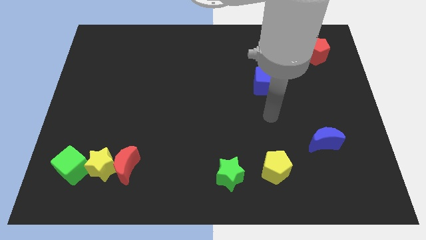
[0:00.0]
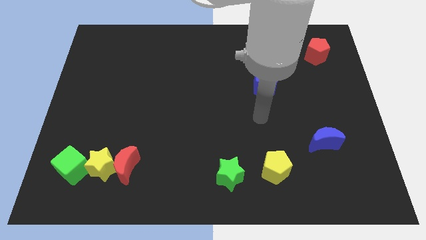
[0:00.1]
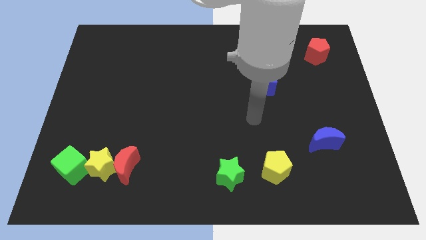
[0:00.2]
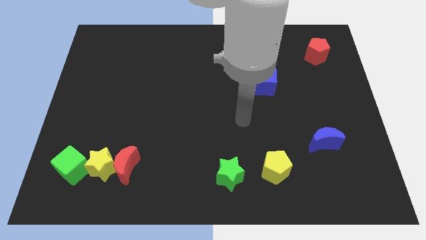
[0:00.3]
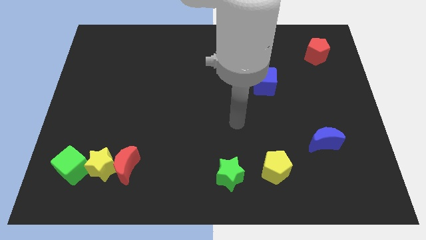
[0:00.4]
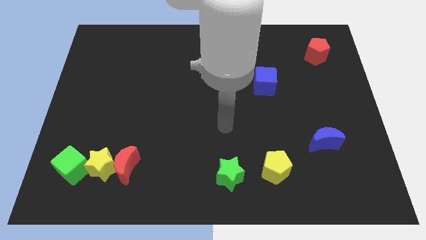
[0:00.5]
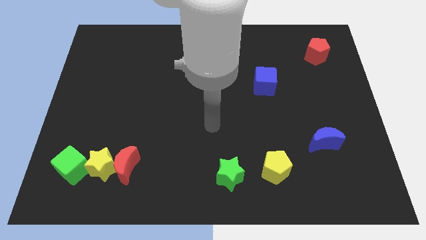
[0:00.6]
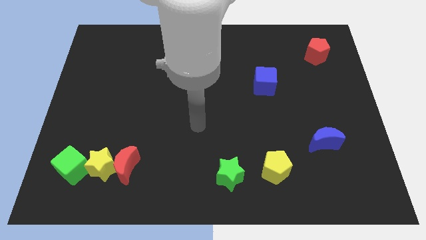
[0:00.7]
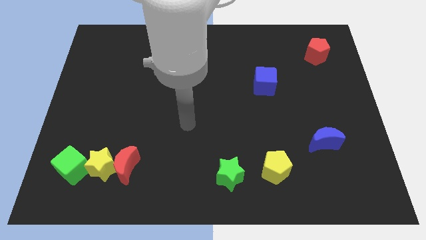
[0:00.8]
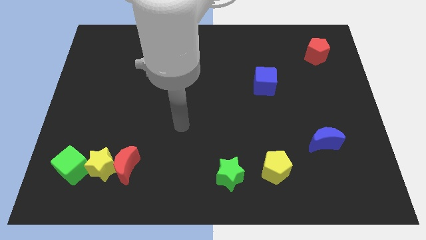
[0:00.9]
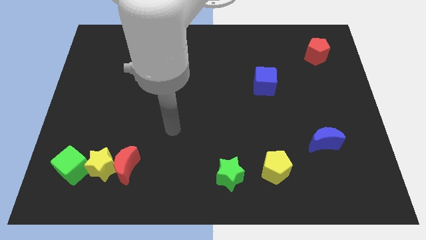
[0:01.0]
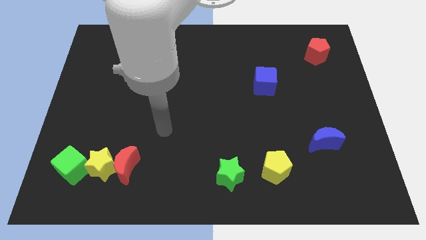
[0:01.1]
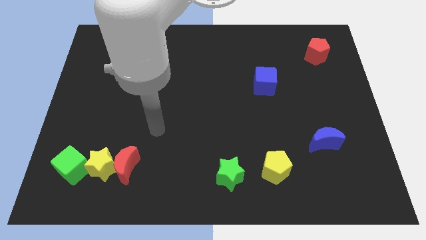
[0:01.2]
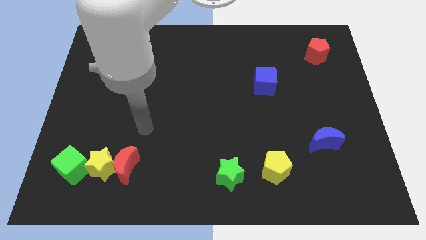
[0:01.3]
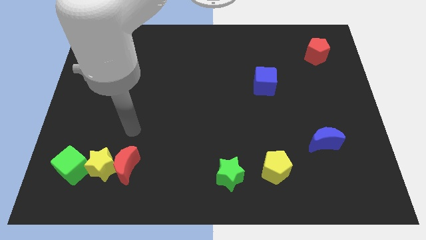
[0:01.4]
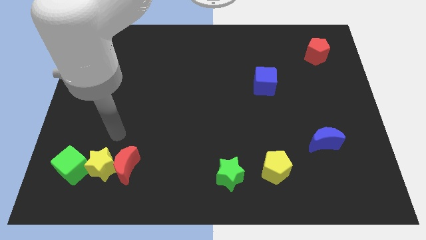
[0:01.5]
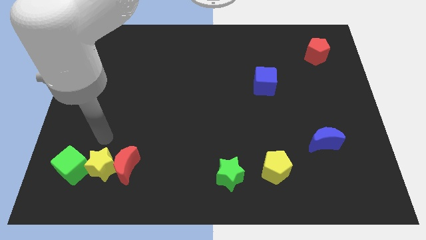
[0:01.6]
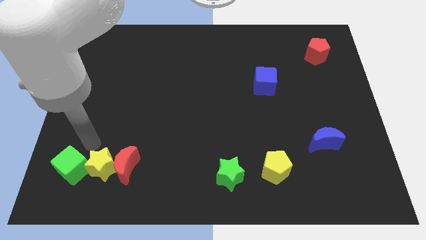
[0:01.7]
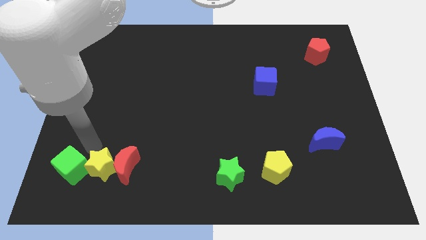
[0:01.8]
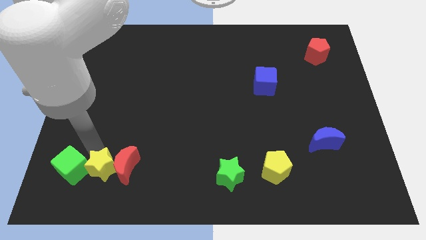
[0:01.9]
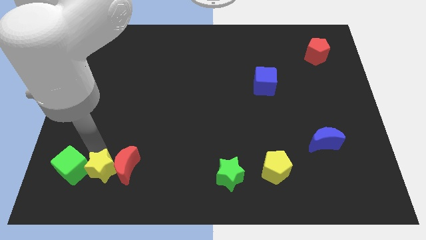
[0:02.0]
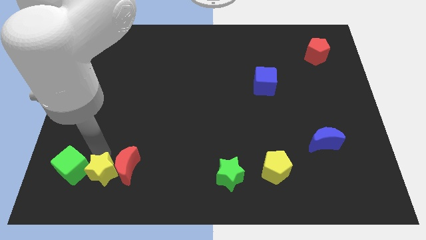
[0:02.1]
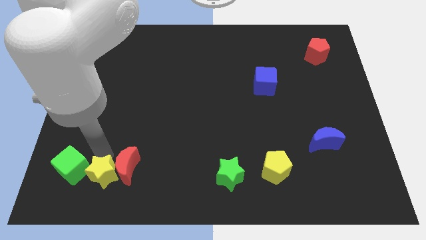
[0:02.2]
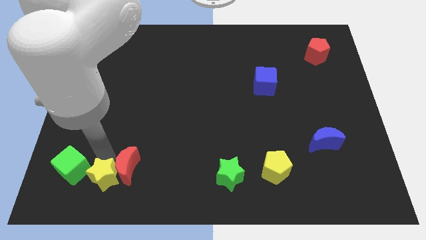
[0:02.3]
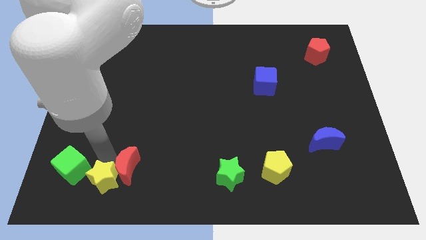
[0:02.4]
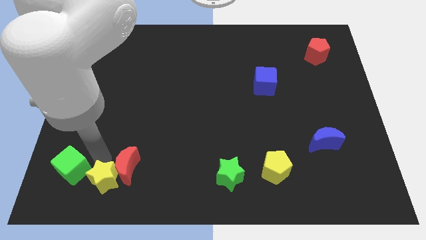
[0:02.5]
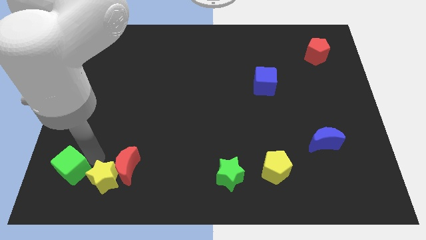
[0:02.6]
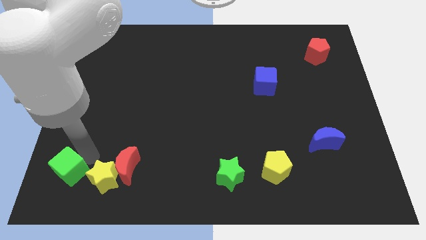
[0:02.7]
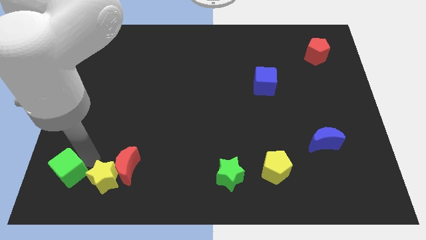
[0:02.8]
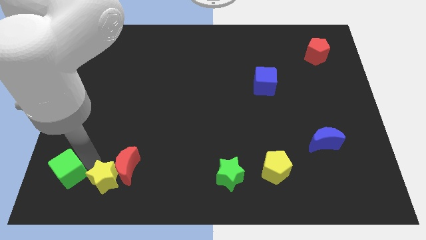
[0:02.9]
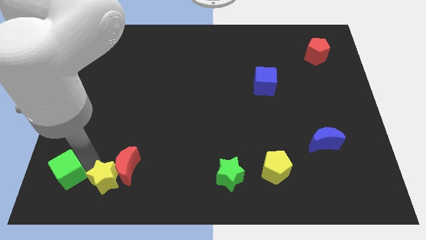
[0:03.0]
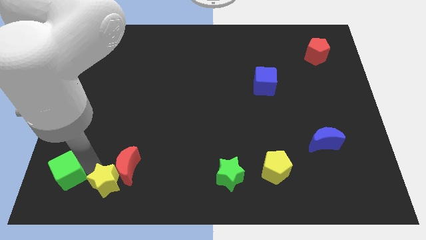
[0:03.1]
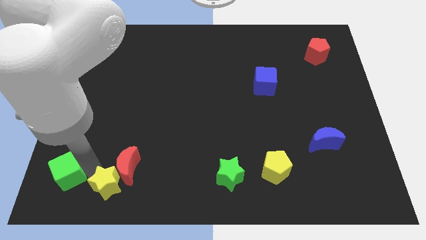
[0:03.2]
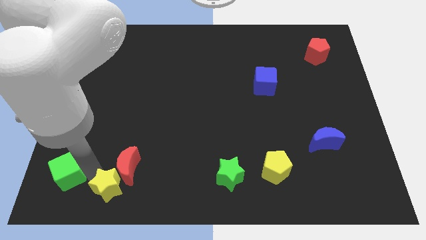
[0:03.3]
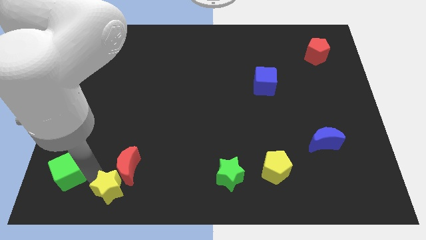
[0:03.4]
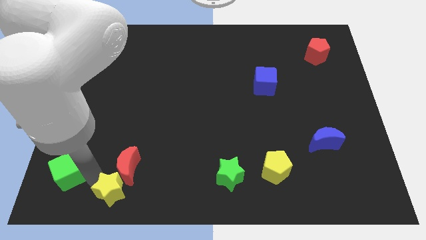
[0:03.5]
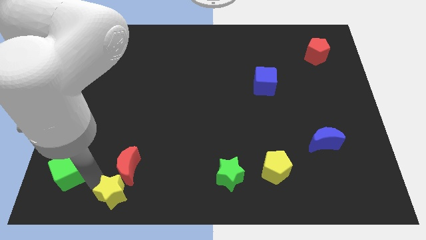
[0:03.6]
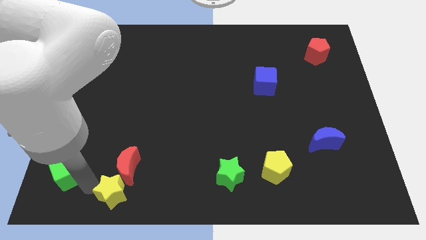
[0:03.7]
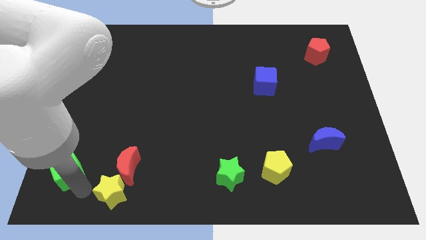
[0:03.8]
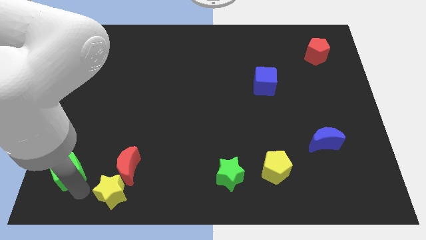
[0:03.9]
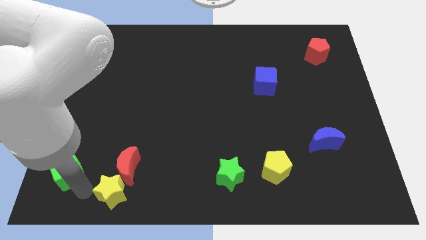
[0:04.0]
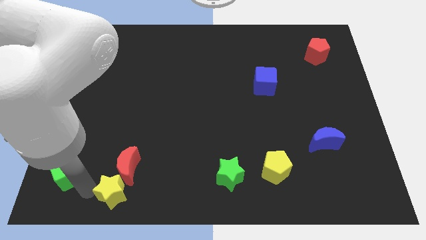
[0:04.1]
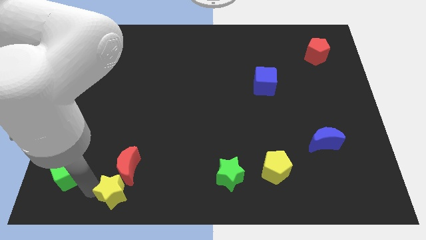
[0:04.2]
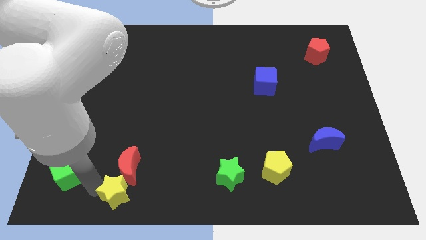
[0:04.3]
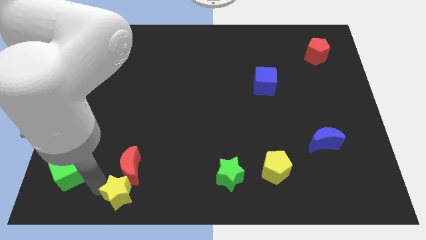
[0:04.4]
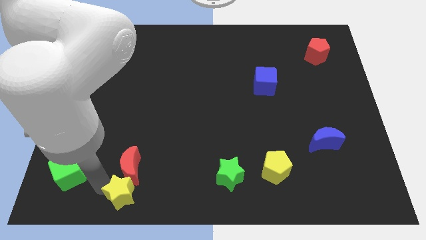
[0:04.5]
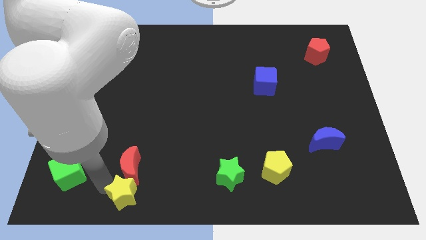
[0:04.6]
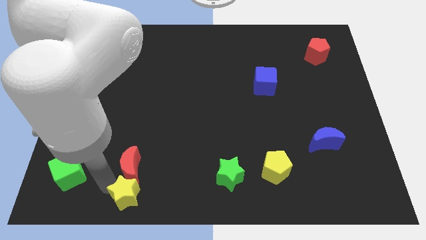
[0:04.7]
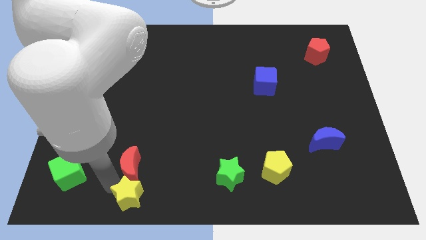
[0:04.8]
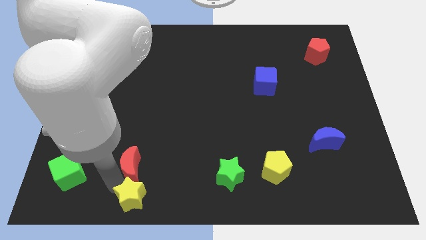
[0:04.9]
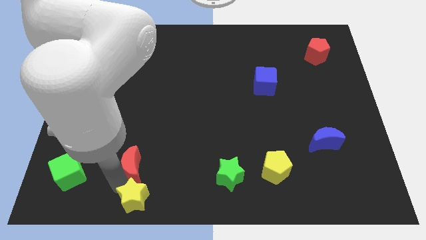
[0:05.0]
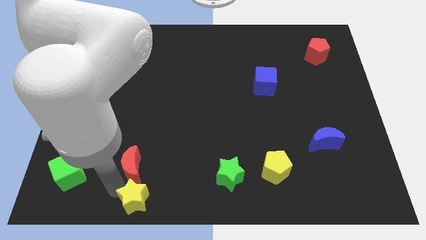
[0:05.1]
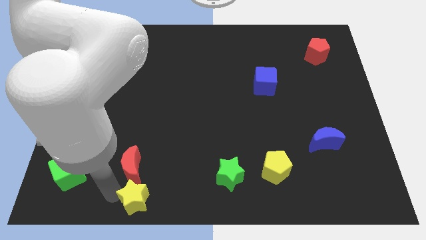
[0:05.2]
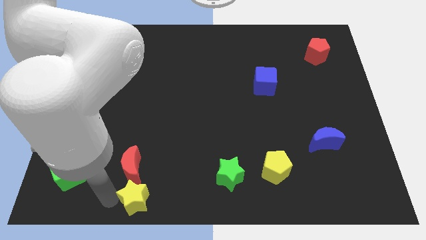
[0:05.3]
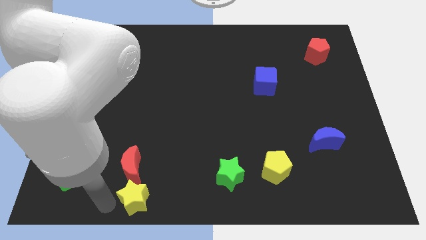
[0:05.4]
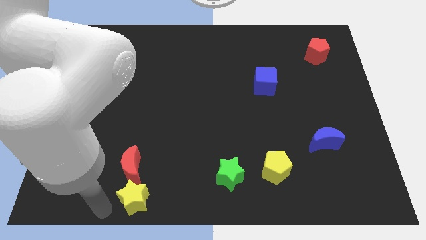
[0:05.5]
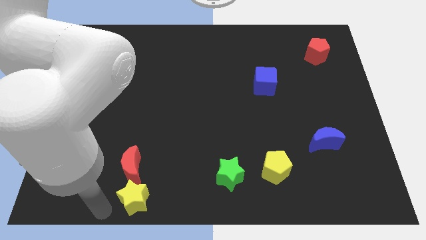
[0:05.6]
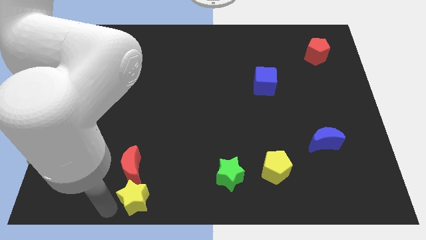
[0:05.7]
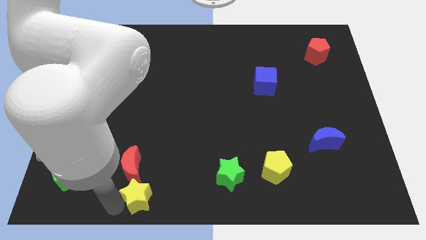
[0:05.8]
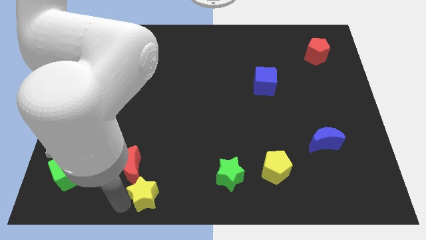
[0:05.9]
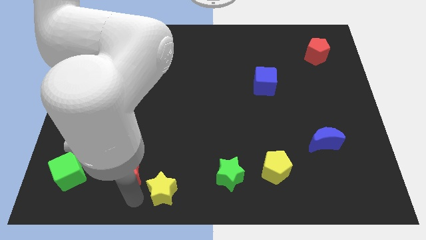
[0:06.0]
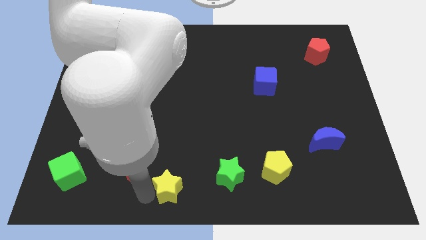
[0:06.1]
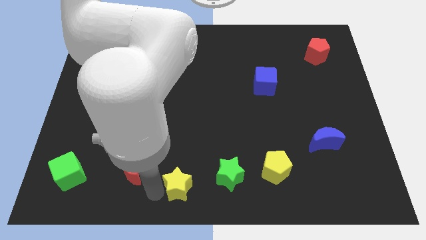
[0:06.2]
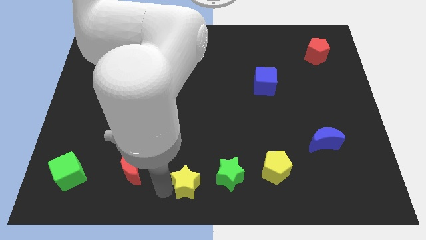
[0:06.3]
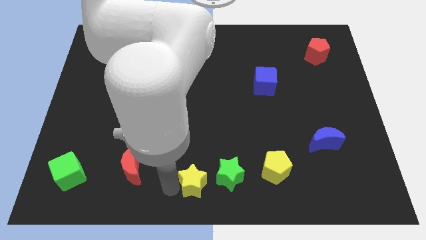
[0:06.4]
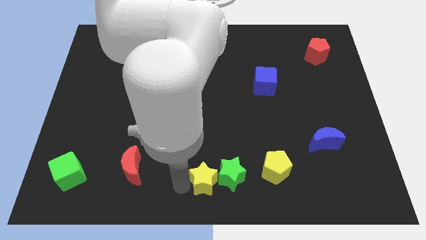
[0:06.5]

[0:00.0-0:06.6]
put the yellow star to the green star

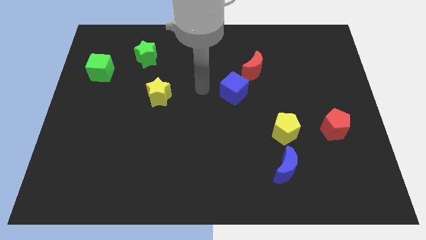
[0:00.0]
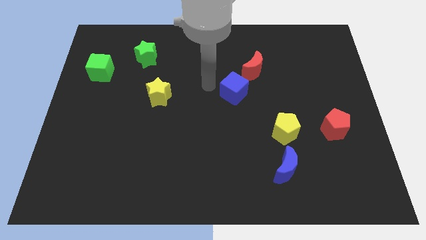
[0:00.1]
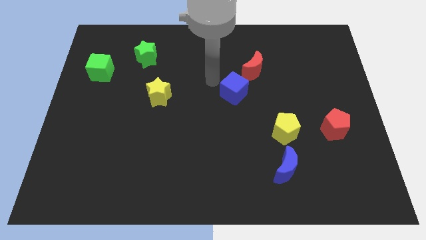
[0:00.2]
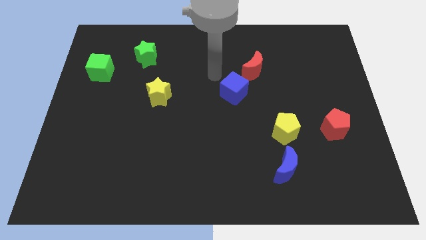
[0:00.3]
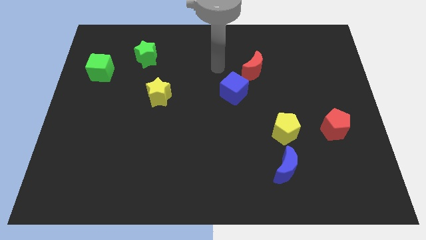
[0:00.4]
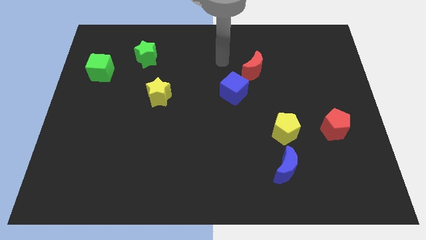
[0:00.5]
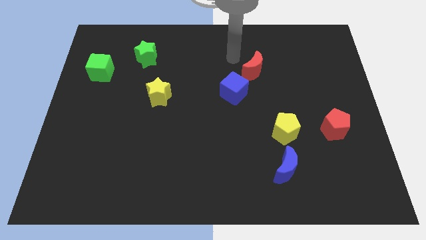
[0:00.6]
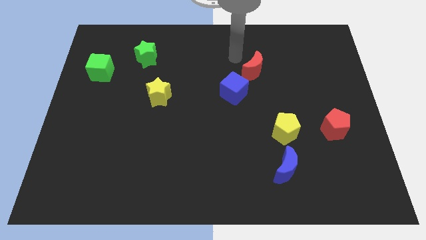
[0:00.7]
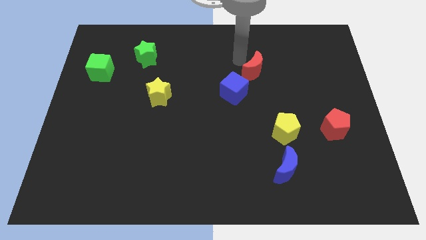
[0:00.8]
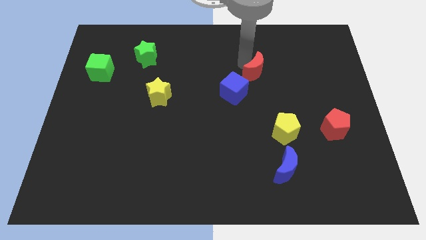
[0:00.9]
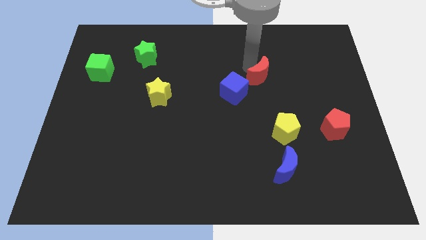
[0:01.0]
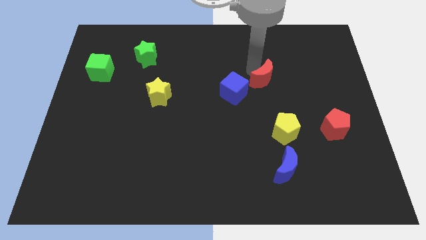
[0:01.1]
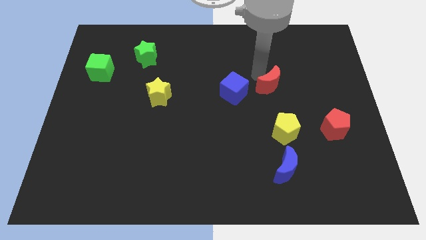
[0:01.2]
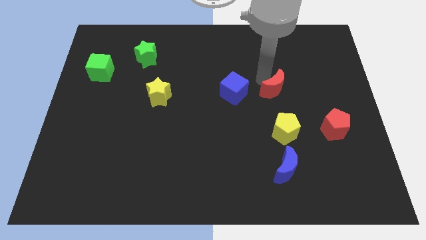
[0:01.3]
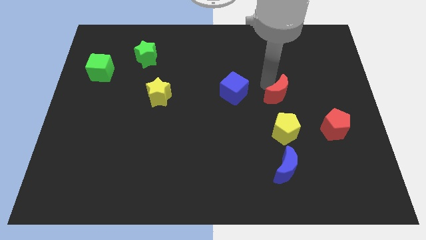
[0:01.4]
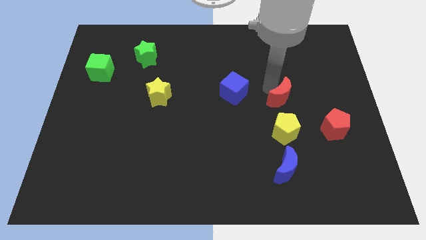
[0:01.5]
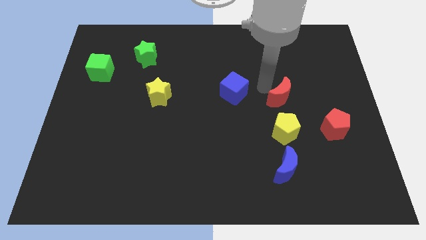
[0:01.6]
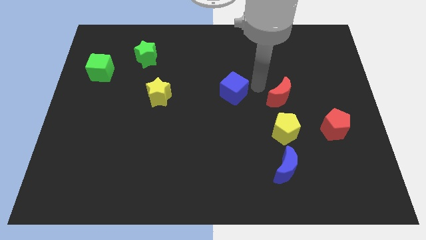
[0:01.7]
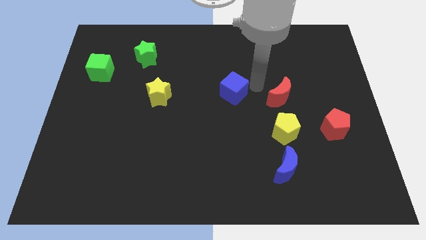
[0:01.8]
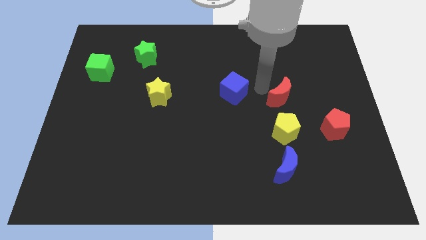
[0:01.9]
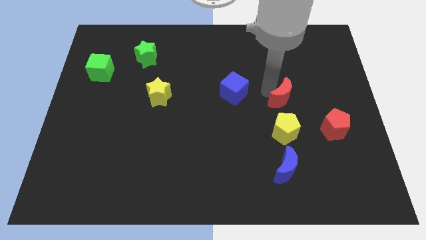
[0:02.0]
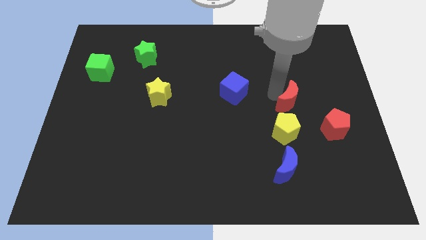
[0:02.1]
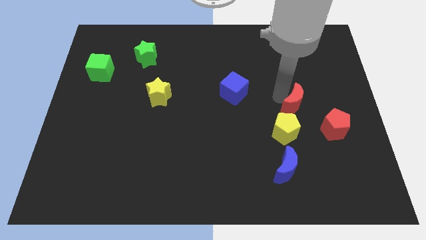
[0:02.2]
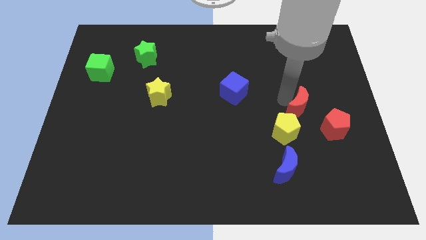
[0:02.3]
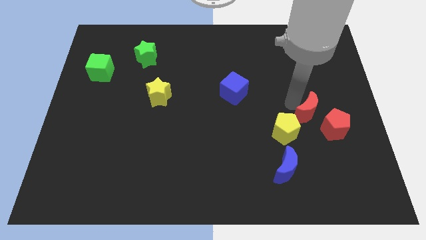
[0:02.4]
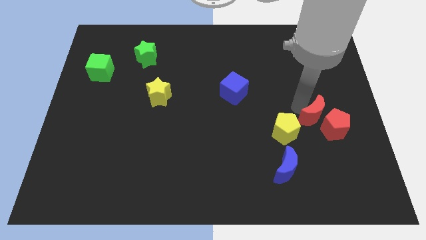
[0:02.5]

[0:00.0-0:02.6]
slide the red moon next to the red pentagon
